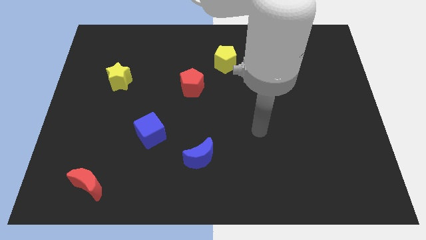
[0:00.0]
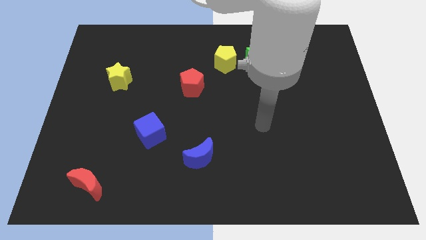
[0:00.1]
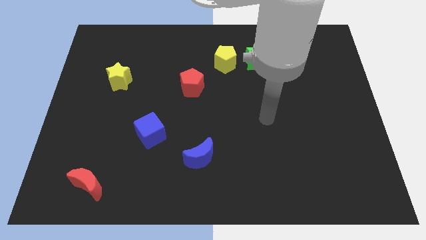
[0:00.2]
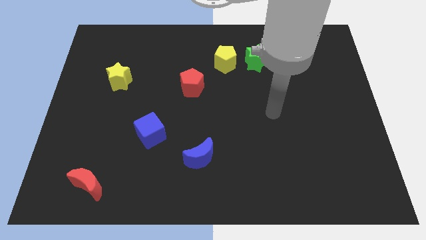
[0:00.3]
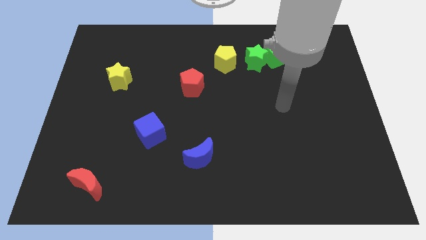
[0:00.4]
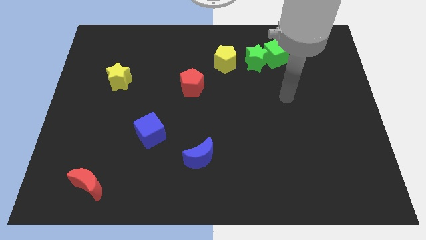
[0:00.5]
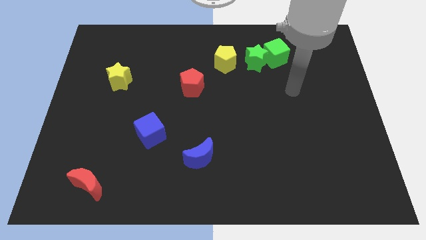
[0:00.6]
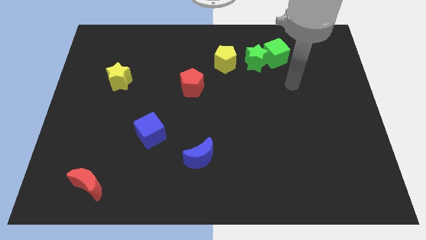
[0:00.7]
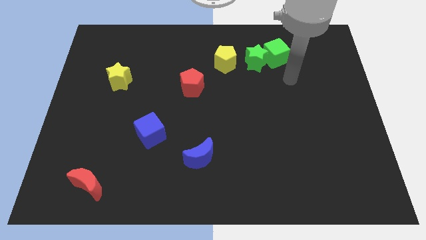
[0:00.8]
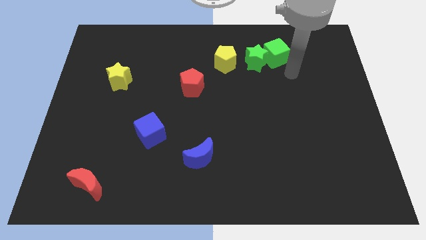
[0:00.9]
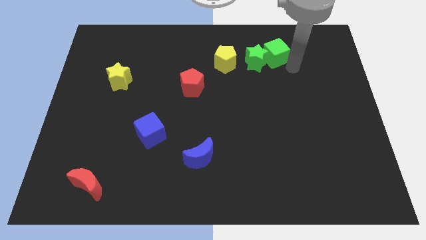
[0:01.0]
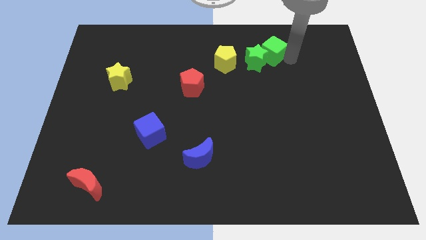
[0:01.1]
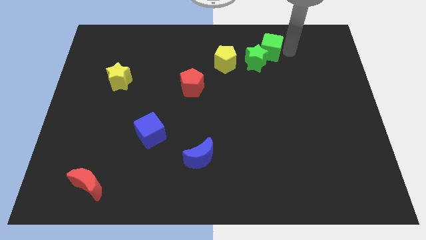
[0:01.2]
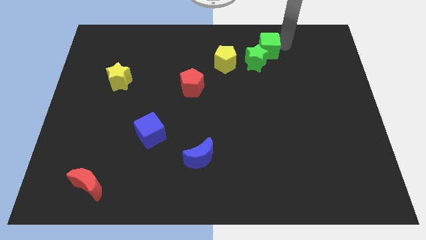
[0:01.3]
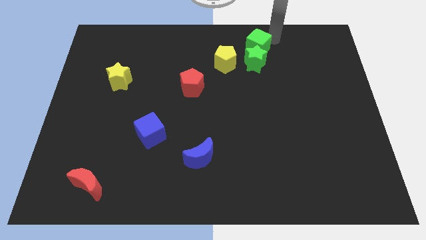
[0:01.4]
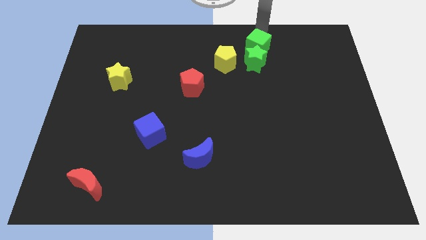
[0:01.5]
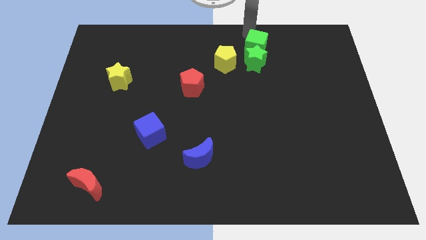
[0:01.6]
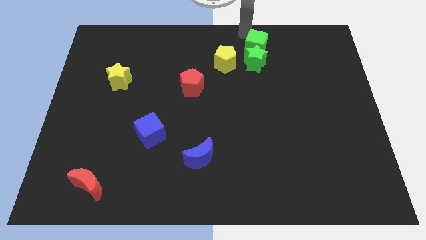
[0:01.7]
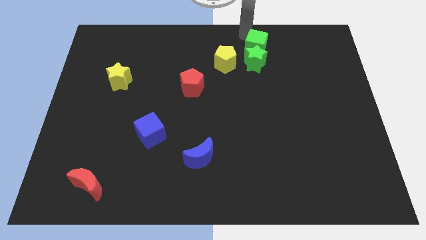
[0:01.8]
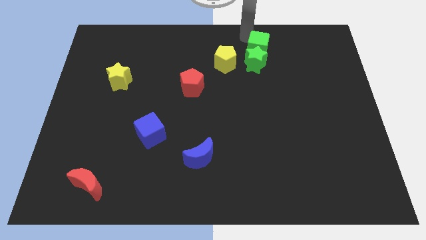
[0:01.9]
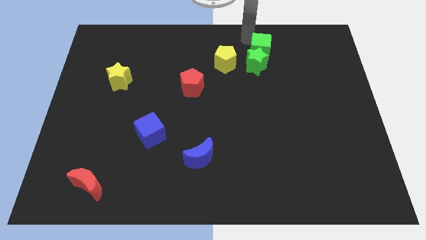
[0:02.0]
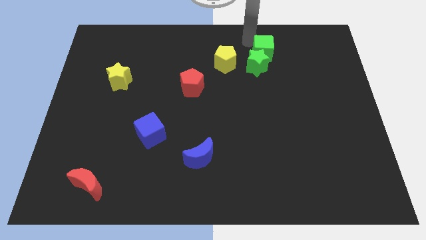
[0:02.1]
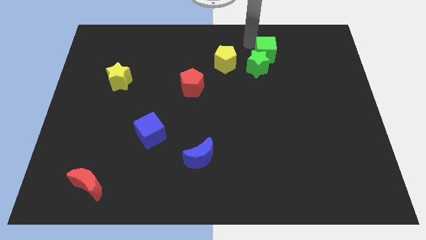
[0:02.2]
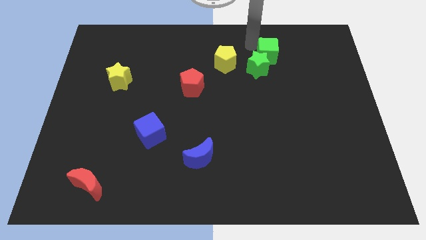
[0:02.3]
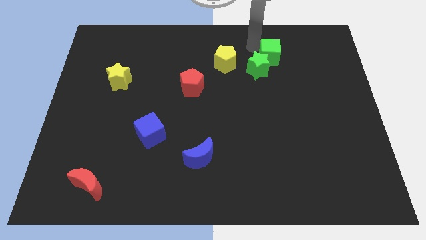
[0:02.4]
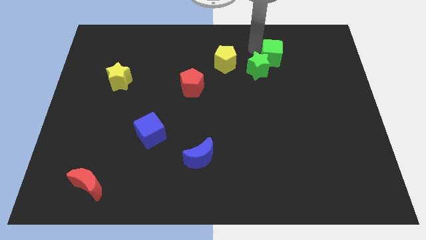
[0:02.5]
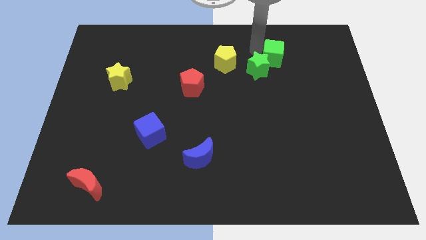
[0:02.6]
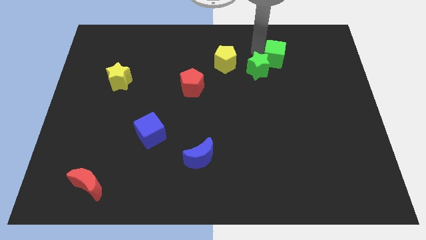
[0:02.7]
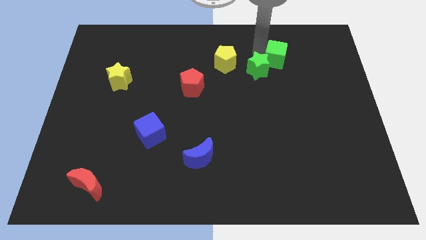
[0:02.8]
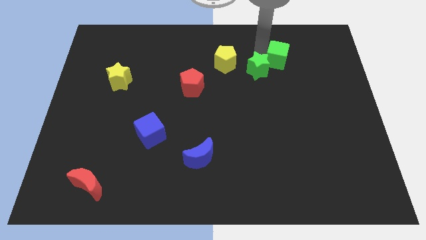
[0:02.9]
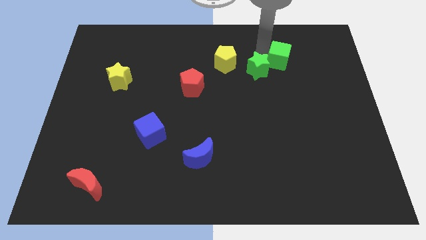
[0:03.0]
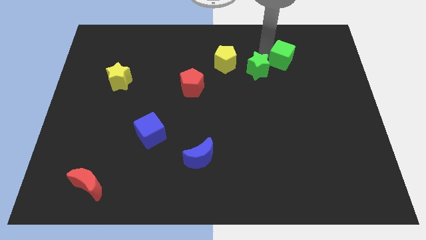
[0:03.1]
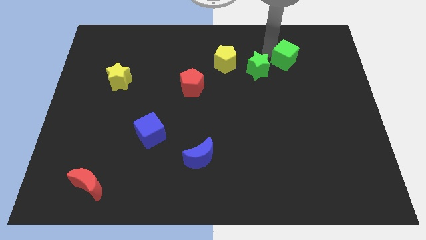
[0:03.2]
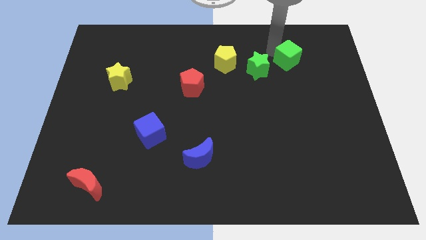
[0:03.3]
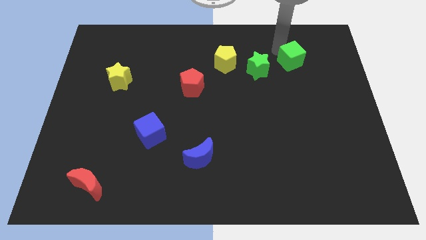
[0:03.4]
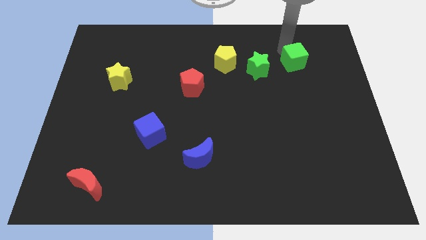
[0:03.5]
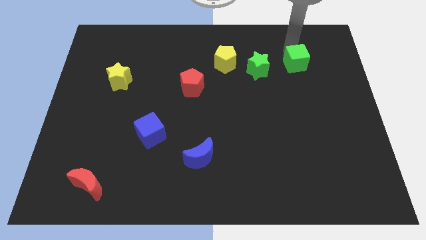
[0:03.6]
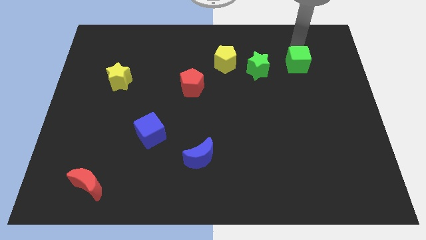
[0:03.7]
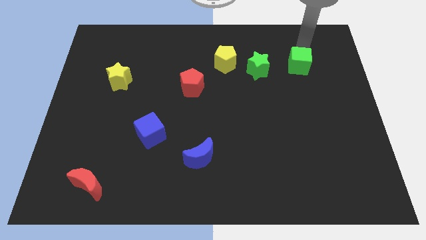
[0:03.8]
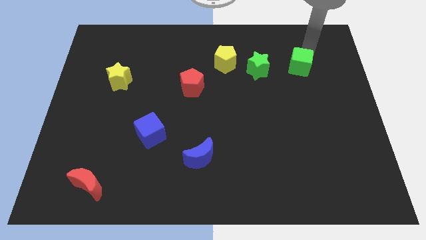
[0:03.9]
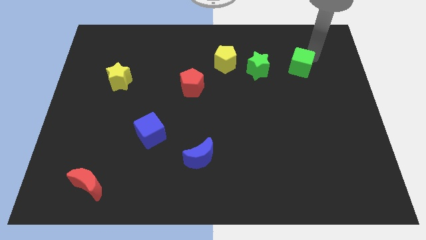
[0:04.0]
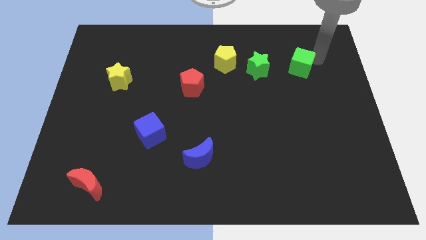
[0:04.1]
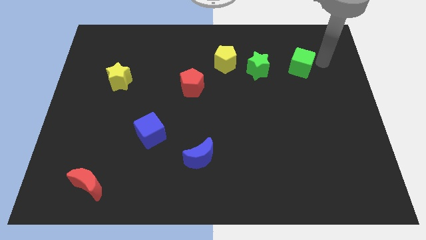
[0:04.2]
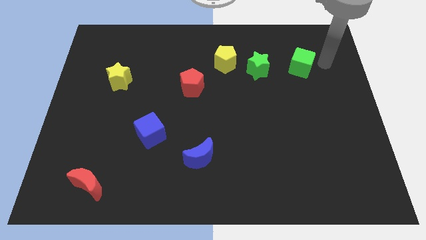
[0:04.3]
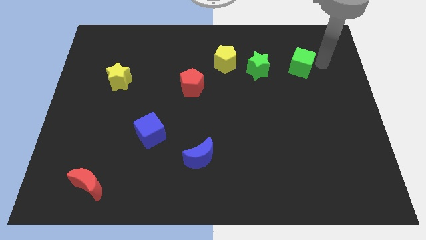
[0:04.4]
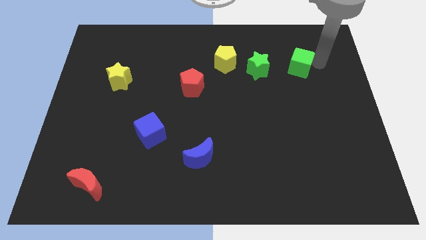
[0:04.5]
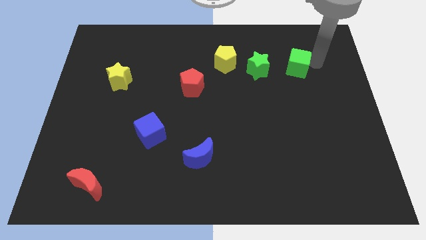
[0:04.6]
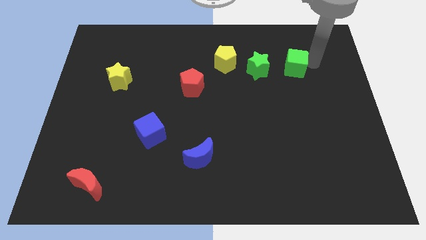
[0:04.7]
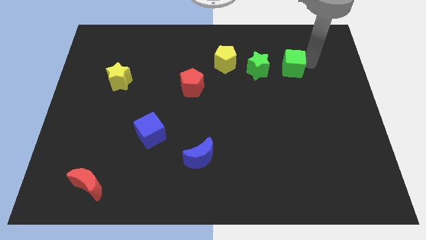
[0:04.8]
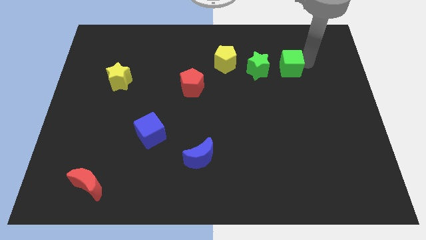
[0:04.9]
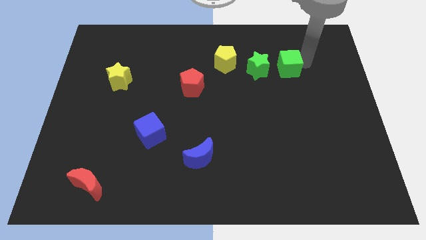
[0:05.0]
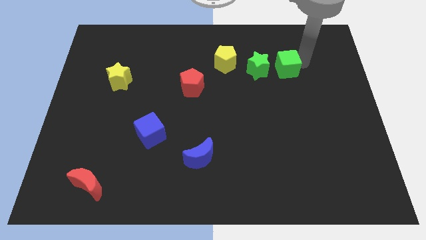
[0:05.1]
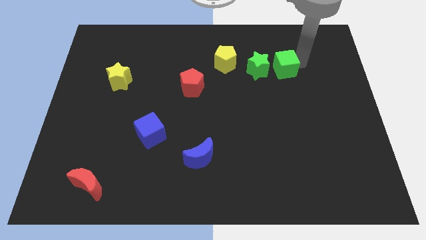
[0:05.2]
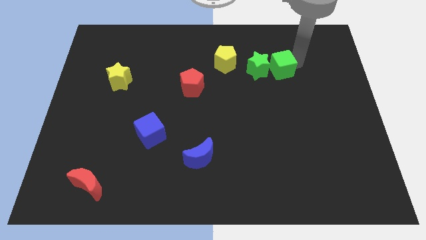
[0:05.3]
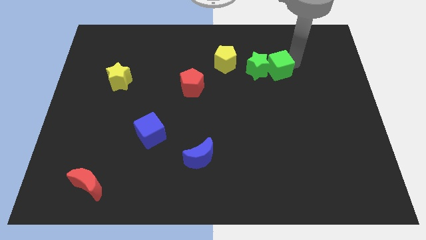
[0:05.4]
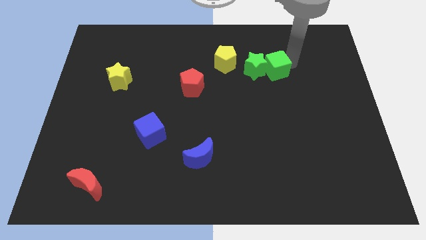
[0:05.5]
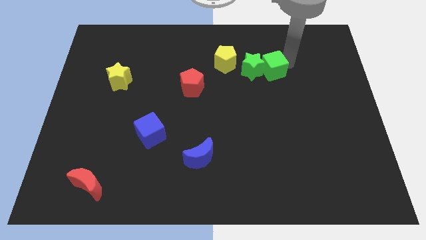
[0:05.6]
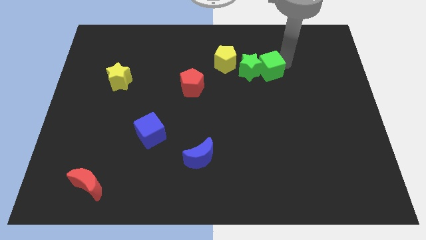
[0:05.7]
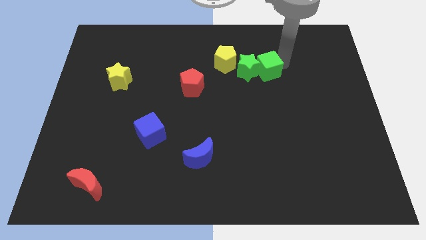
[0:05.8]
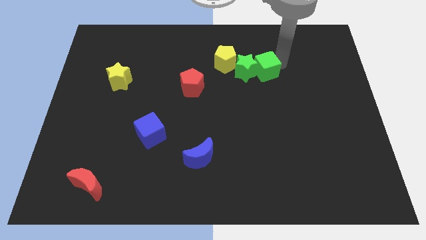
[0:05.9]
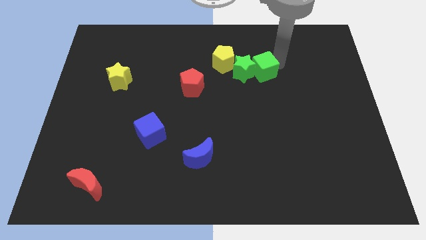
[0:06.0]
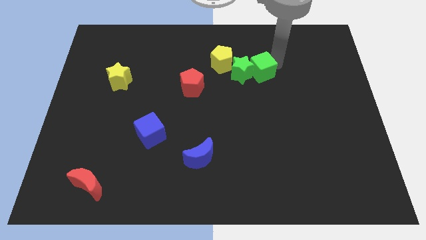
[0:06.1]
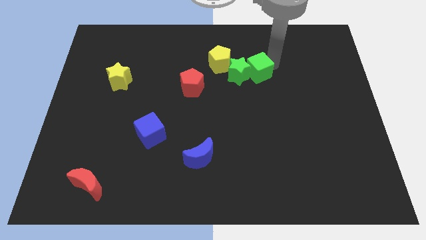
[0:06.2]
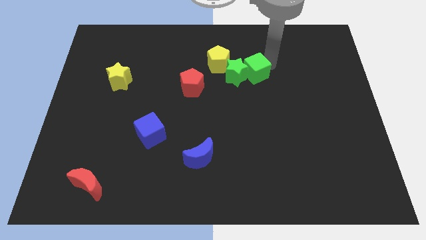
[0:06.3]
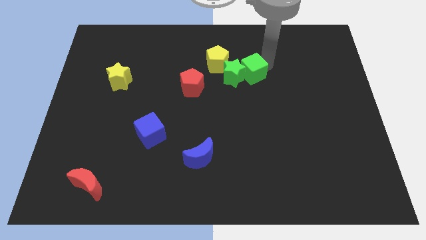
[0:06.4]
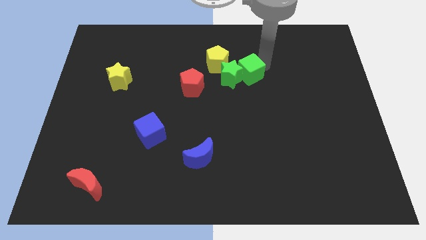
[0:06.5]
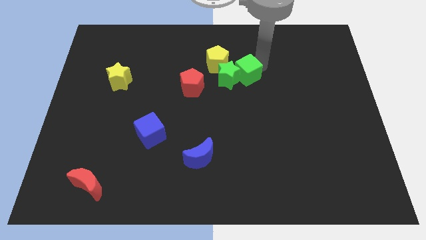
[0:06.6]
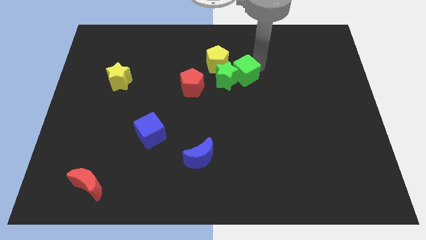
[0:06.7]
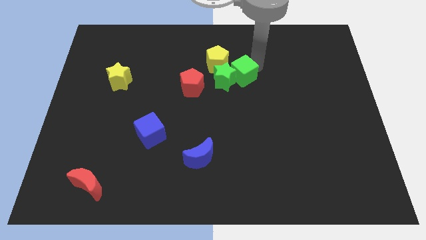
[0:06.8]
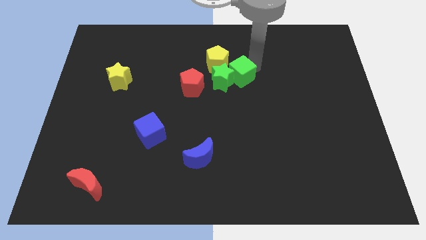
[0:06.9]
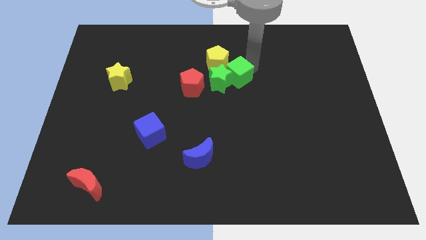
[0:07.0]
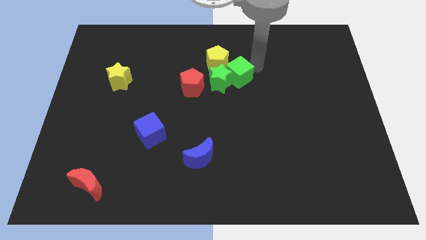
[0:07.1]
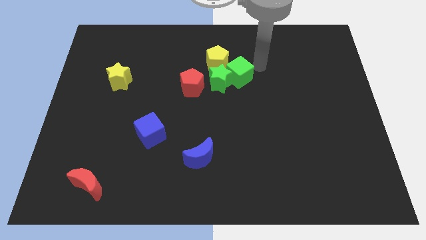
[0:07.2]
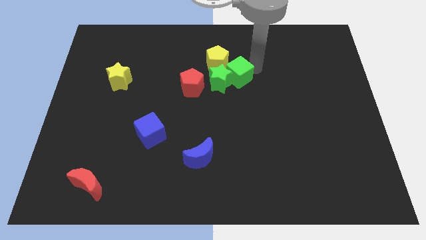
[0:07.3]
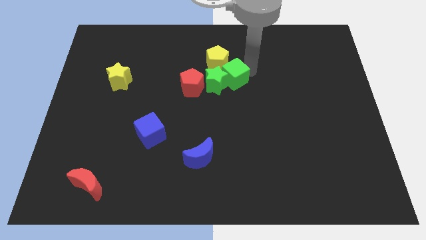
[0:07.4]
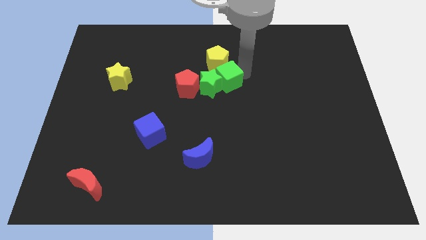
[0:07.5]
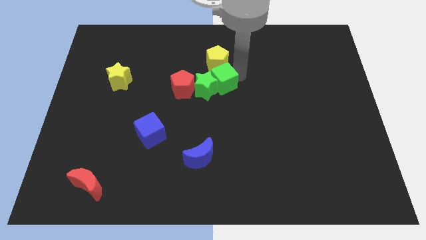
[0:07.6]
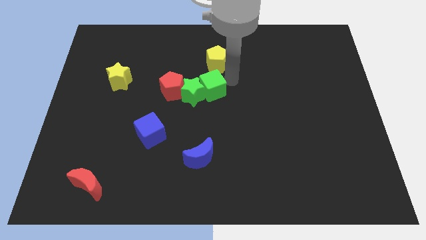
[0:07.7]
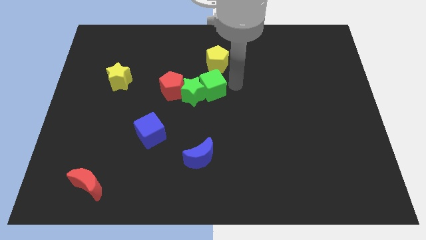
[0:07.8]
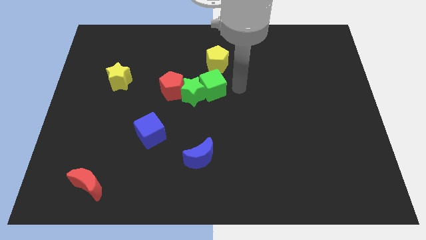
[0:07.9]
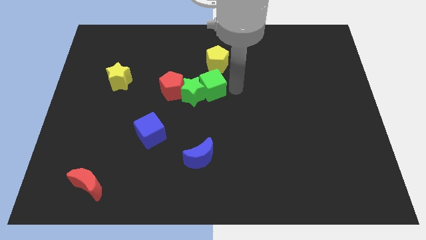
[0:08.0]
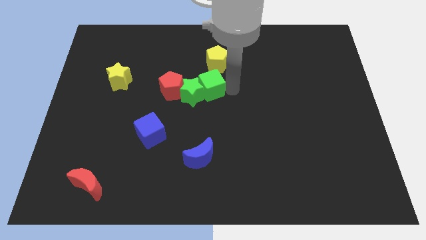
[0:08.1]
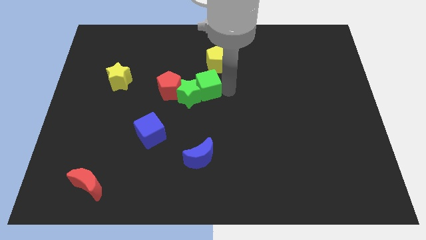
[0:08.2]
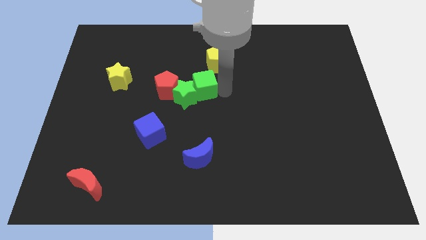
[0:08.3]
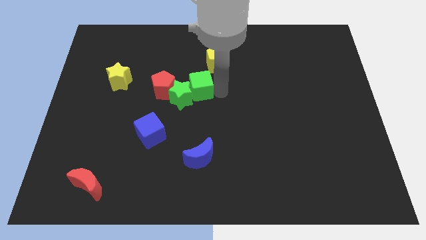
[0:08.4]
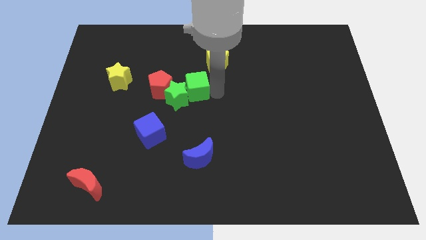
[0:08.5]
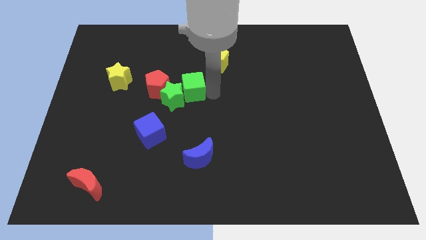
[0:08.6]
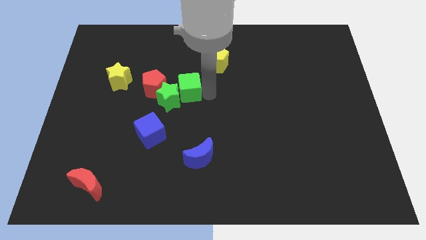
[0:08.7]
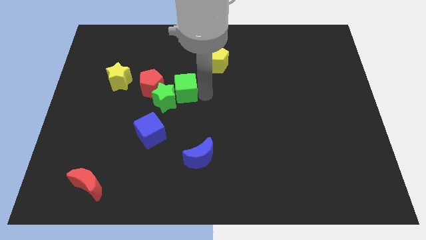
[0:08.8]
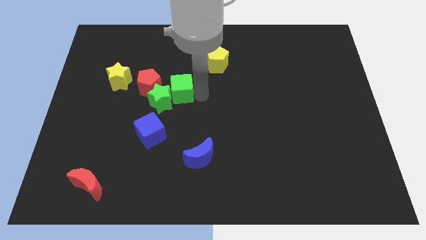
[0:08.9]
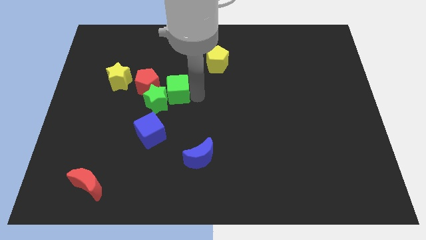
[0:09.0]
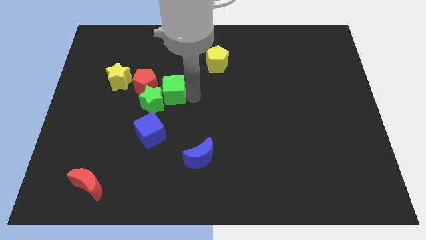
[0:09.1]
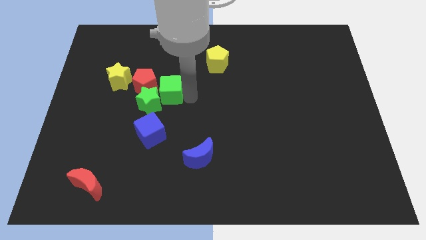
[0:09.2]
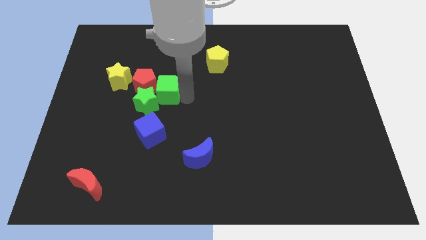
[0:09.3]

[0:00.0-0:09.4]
push the green cube next to the red pentagon
